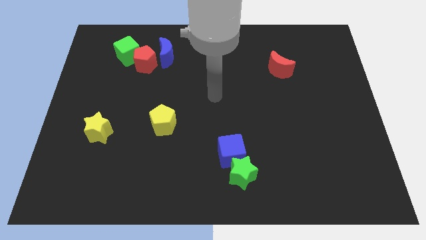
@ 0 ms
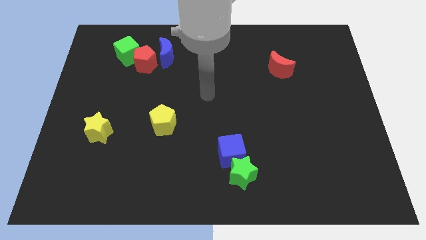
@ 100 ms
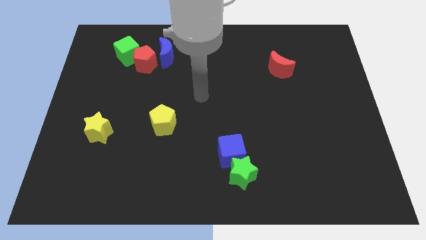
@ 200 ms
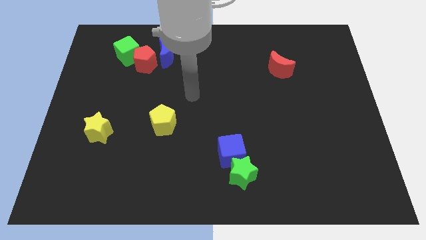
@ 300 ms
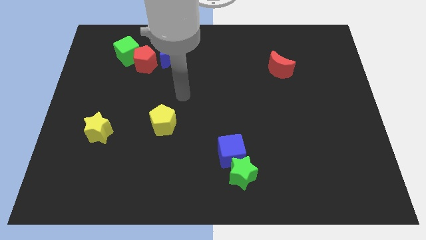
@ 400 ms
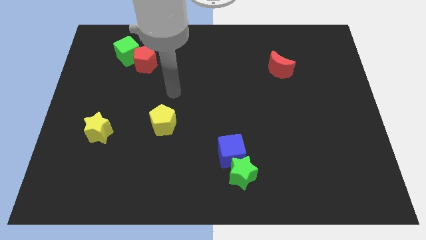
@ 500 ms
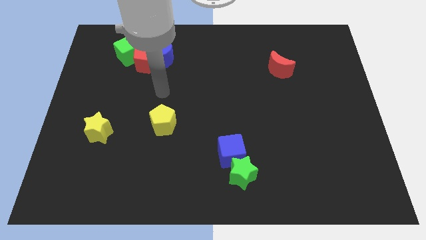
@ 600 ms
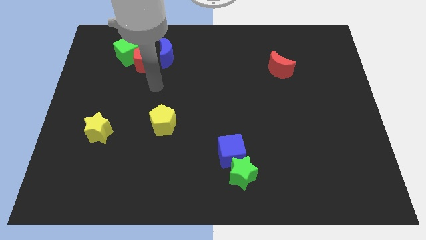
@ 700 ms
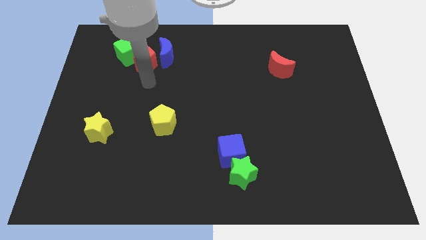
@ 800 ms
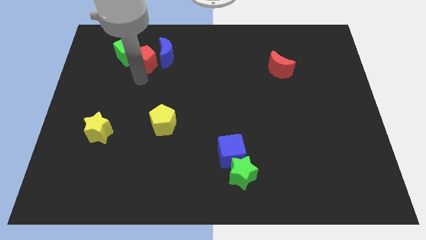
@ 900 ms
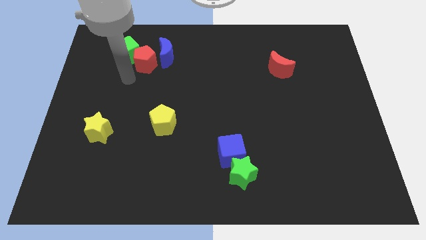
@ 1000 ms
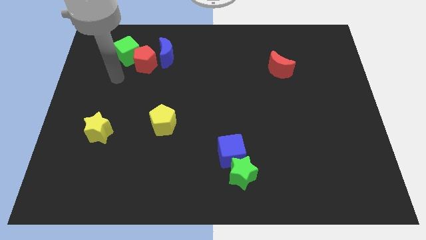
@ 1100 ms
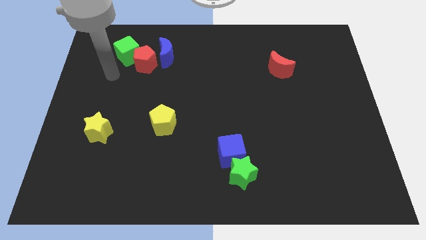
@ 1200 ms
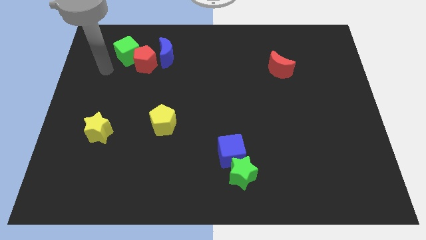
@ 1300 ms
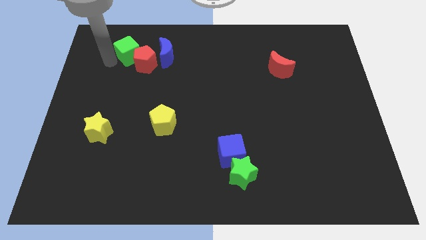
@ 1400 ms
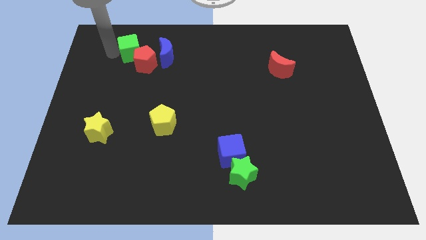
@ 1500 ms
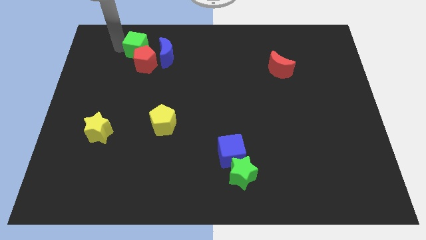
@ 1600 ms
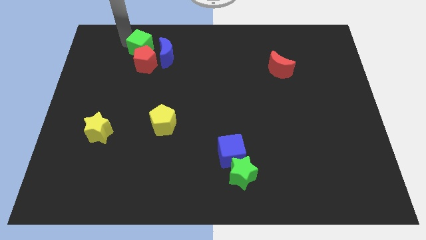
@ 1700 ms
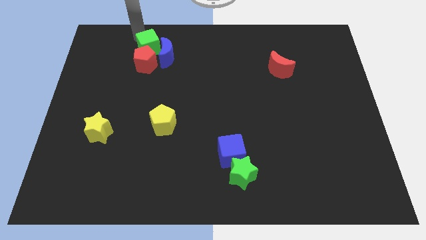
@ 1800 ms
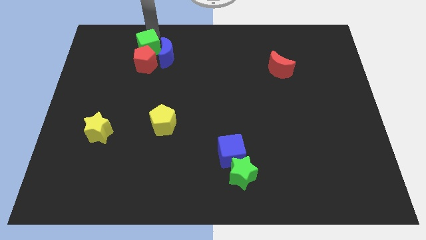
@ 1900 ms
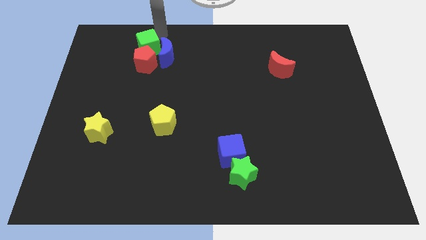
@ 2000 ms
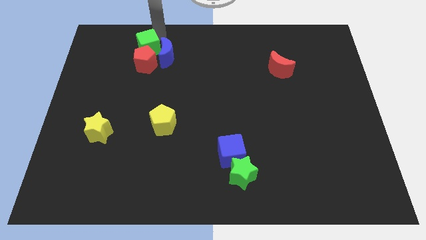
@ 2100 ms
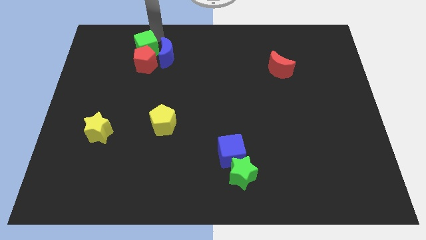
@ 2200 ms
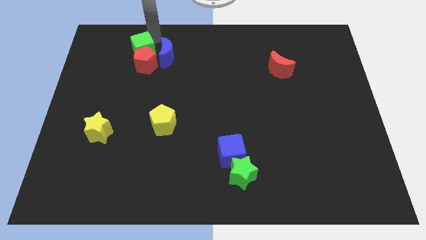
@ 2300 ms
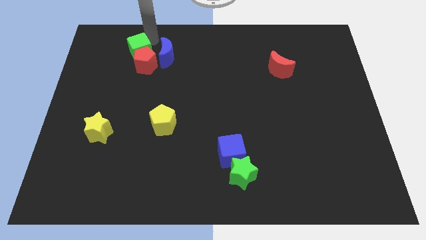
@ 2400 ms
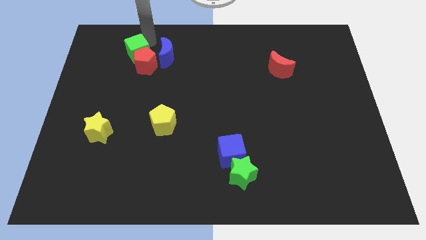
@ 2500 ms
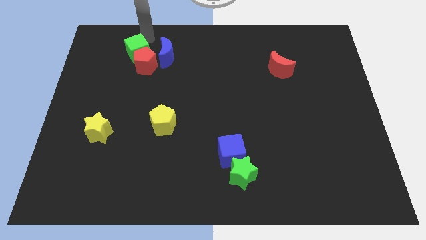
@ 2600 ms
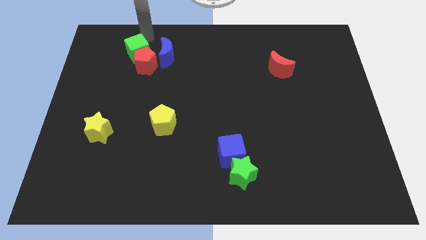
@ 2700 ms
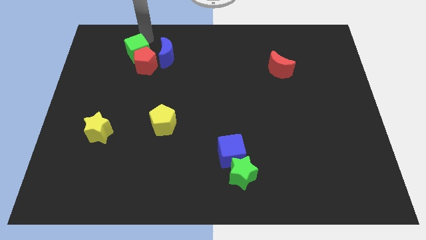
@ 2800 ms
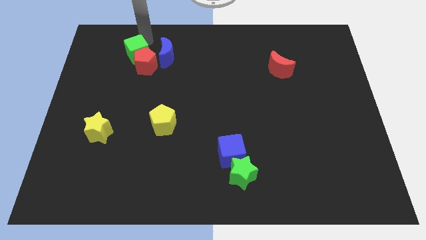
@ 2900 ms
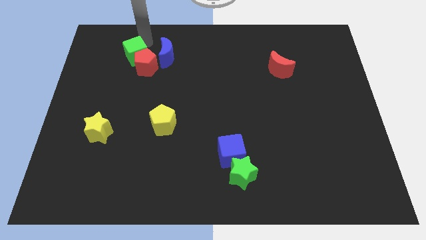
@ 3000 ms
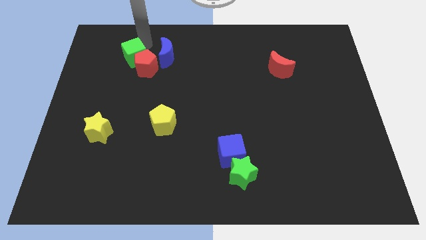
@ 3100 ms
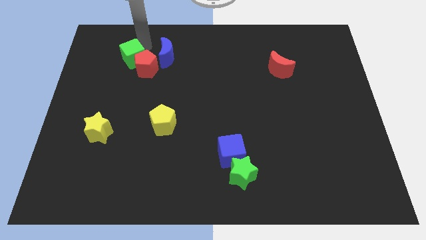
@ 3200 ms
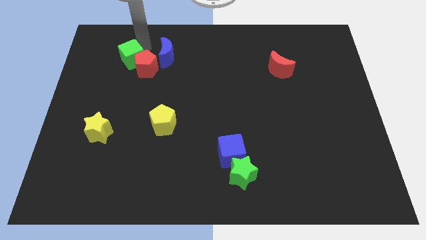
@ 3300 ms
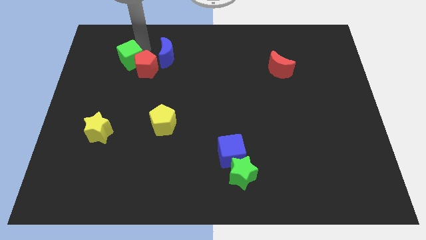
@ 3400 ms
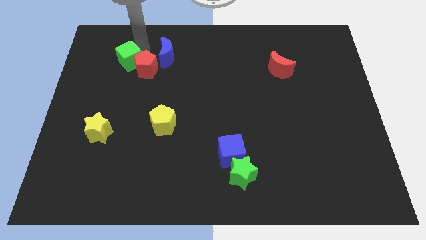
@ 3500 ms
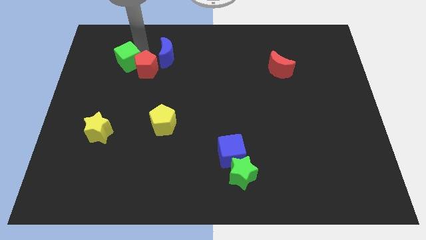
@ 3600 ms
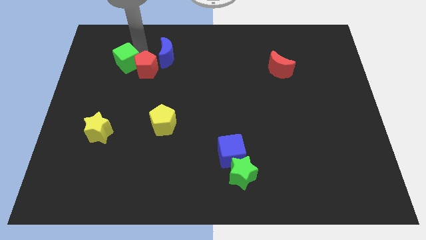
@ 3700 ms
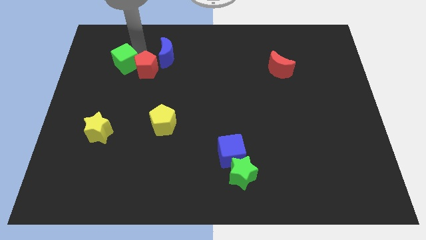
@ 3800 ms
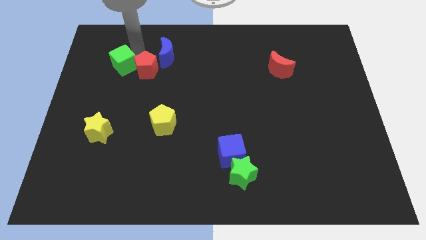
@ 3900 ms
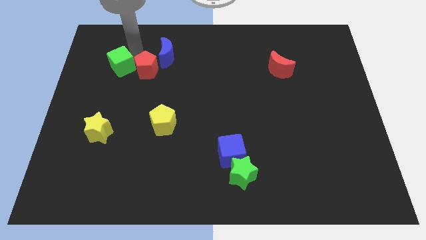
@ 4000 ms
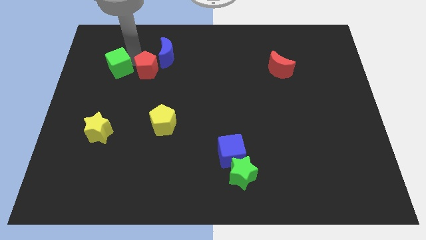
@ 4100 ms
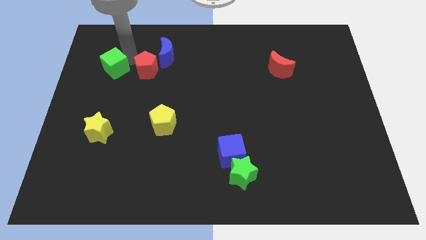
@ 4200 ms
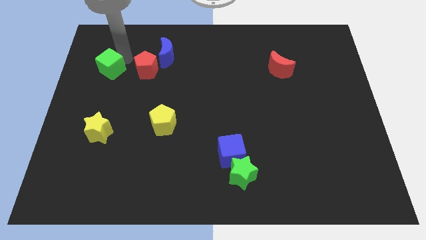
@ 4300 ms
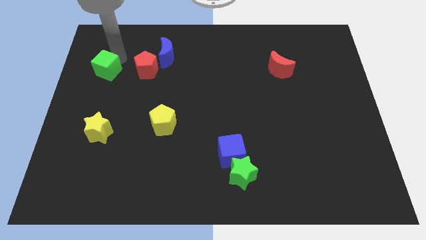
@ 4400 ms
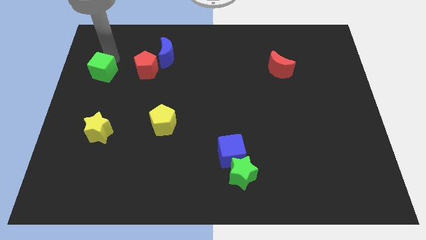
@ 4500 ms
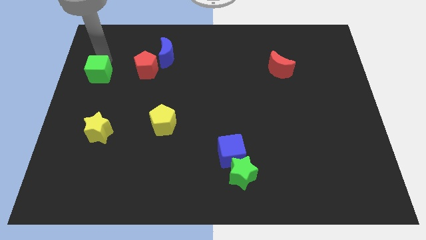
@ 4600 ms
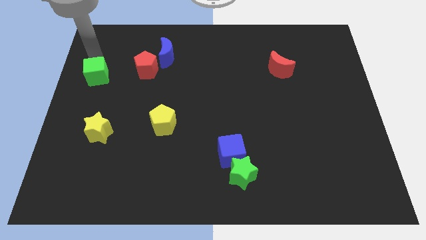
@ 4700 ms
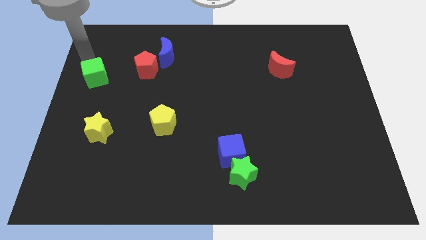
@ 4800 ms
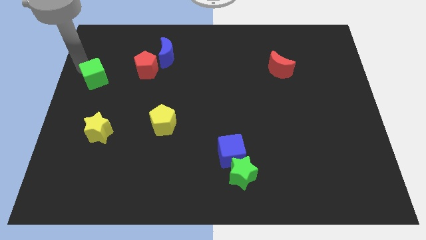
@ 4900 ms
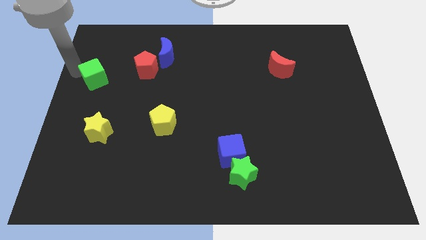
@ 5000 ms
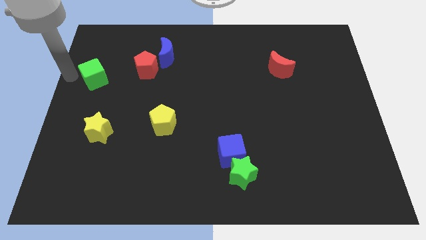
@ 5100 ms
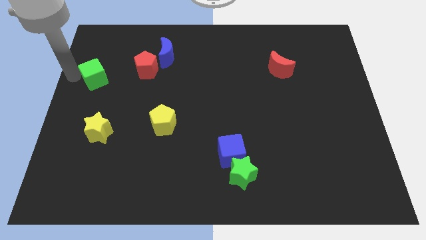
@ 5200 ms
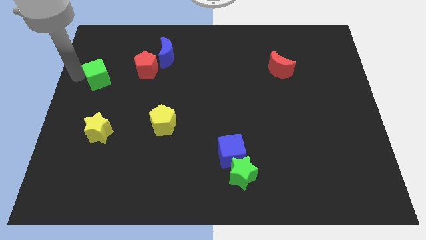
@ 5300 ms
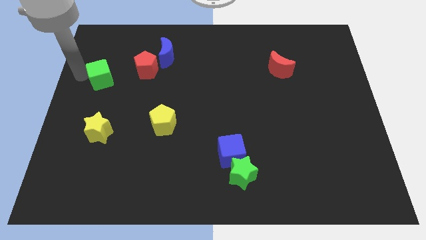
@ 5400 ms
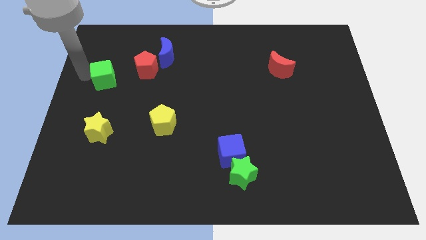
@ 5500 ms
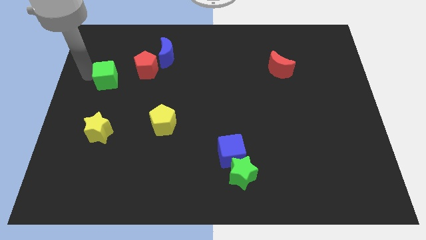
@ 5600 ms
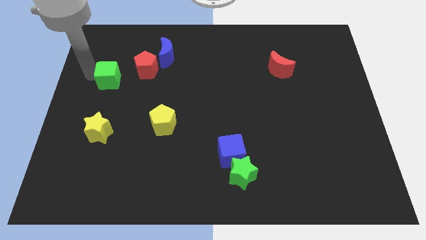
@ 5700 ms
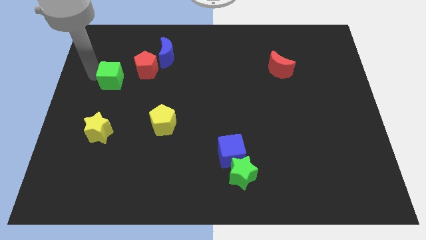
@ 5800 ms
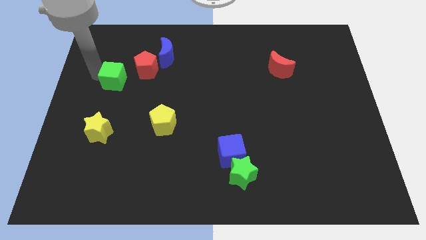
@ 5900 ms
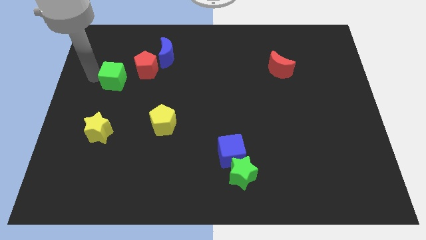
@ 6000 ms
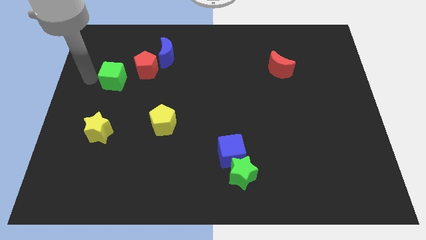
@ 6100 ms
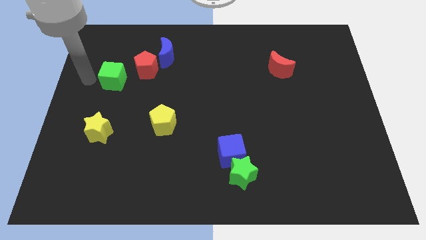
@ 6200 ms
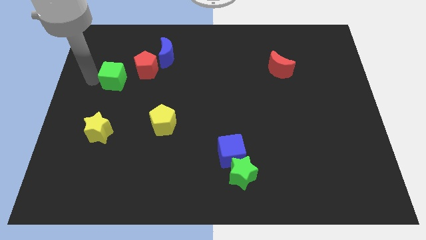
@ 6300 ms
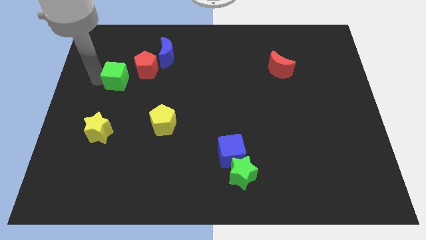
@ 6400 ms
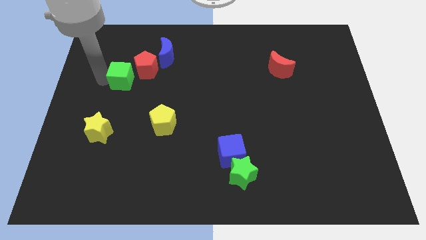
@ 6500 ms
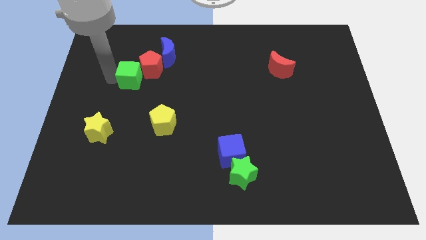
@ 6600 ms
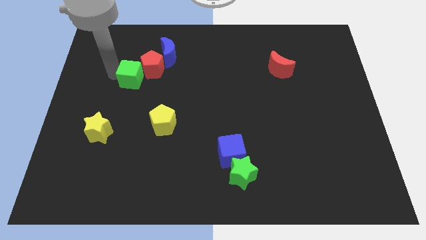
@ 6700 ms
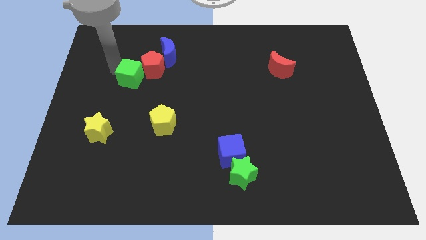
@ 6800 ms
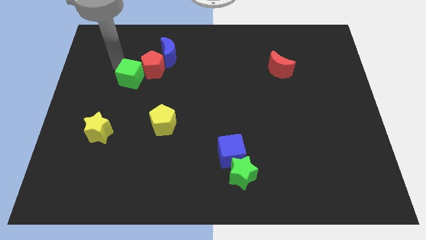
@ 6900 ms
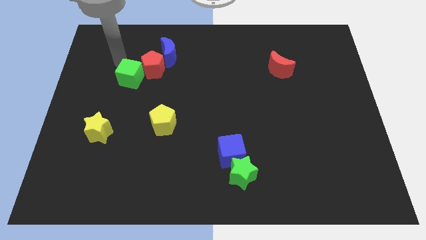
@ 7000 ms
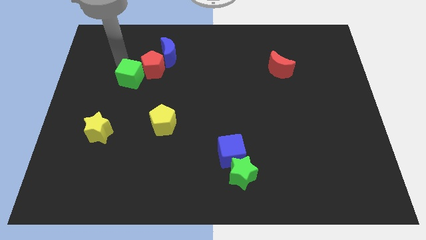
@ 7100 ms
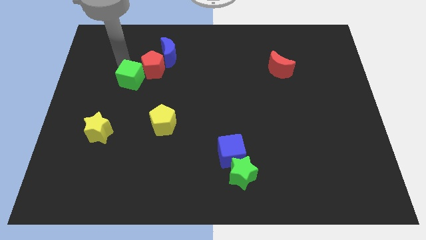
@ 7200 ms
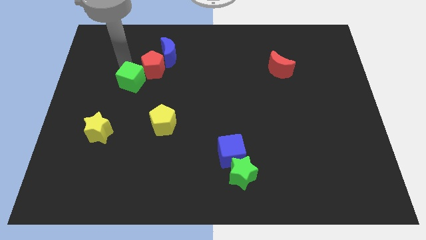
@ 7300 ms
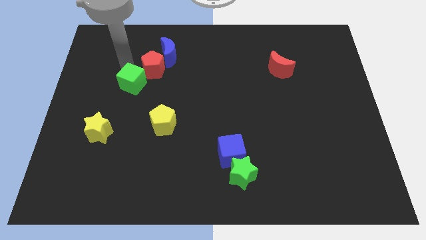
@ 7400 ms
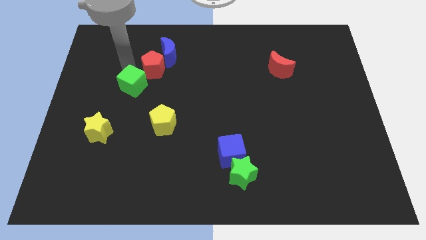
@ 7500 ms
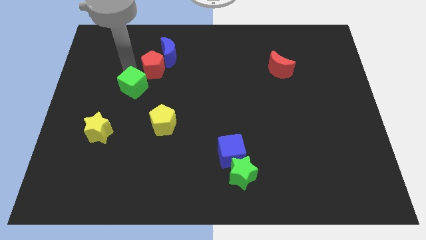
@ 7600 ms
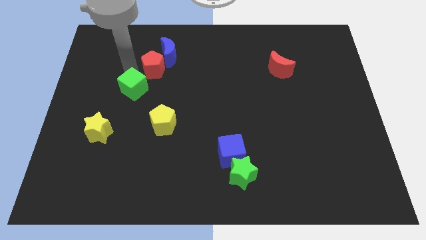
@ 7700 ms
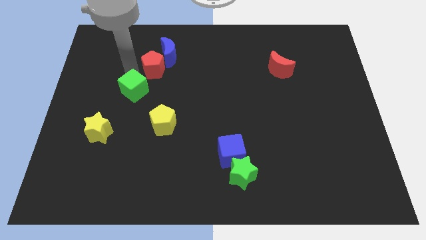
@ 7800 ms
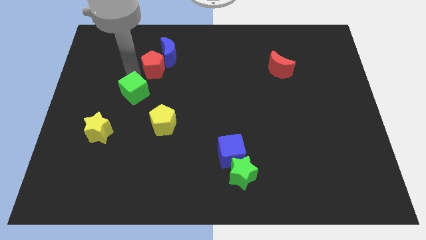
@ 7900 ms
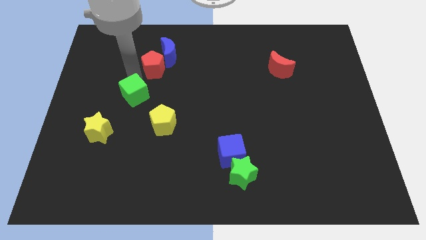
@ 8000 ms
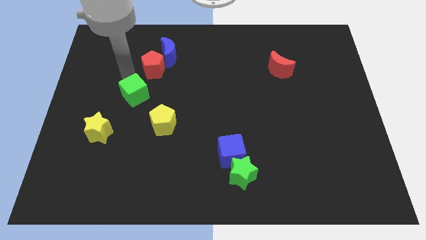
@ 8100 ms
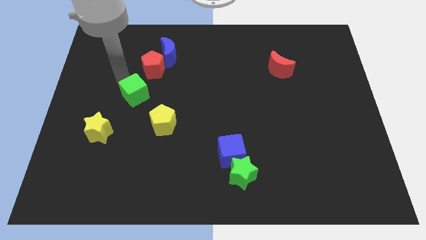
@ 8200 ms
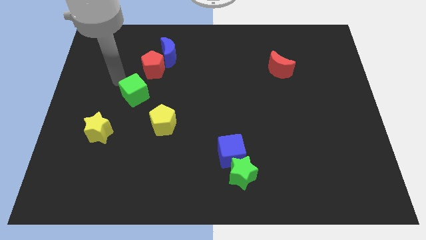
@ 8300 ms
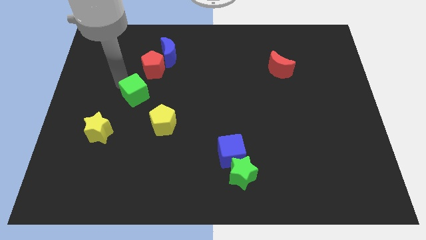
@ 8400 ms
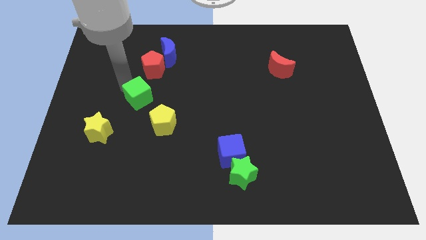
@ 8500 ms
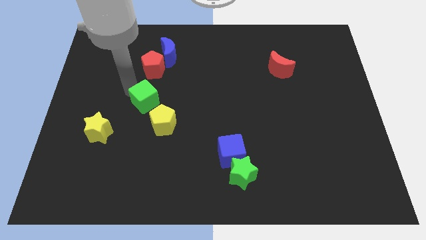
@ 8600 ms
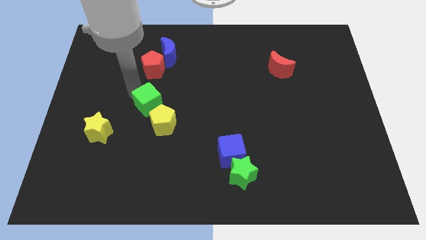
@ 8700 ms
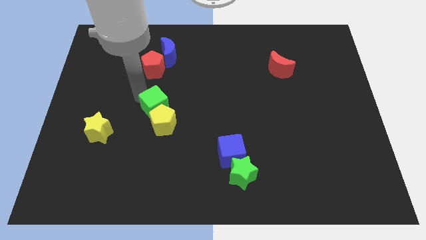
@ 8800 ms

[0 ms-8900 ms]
slide the green cube towards the yellow pentagon
